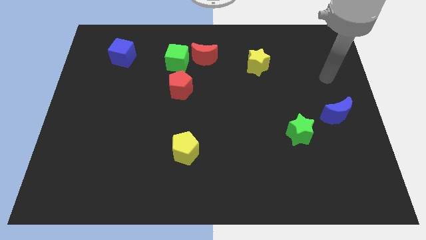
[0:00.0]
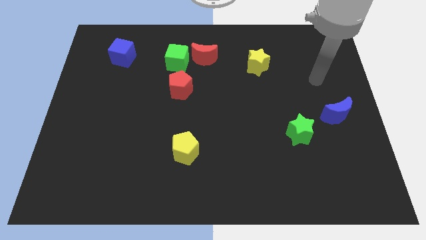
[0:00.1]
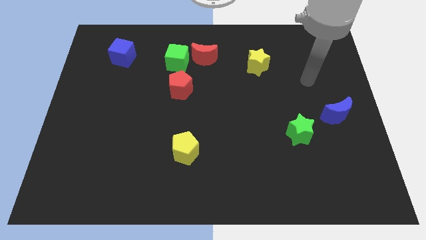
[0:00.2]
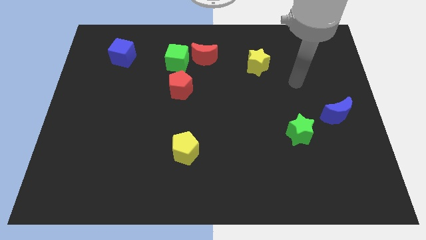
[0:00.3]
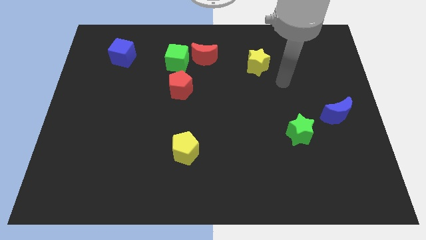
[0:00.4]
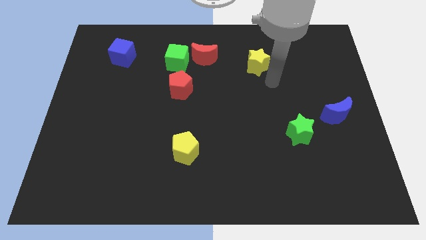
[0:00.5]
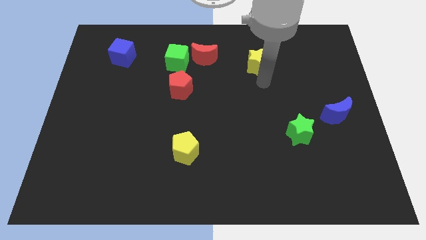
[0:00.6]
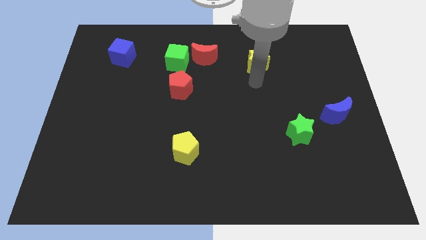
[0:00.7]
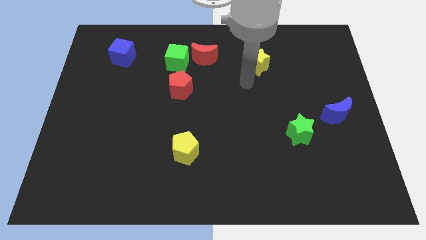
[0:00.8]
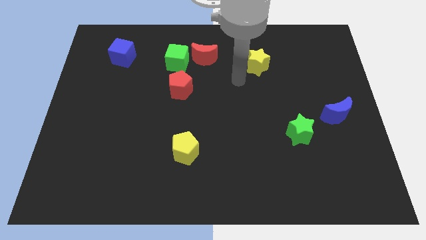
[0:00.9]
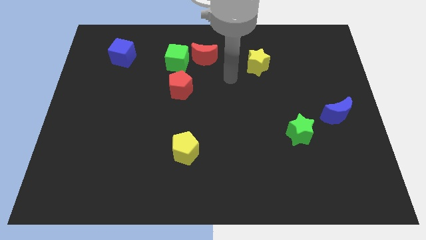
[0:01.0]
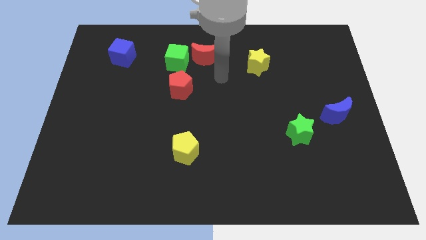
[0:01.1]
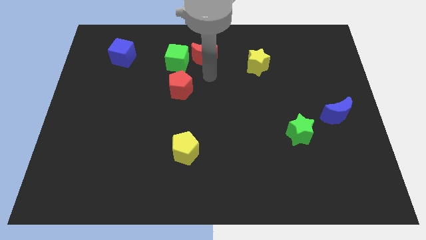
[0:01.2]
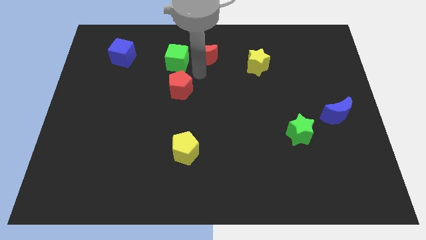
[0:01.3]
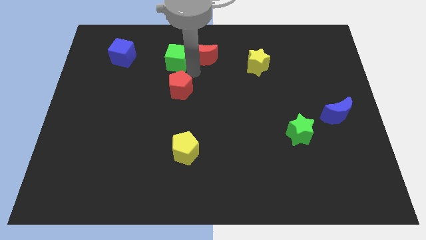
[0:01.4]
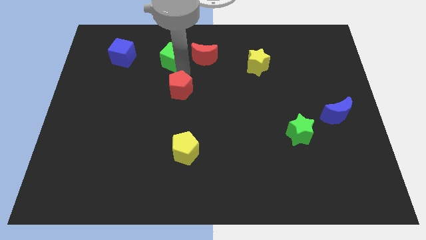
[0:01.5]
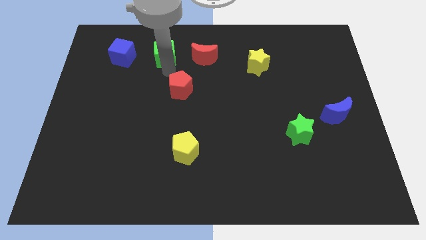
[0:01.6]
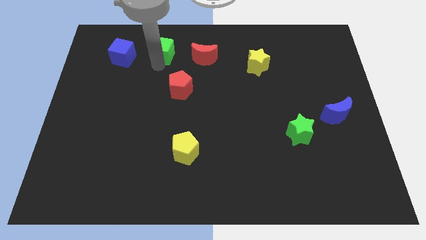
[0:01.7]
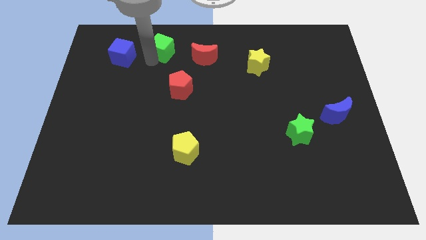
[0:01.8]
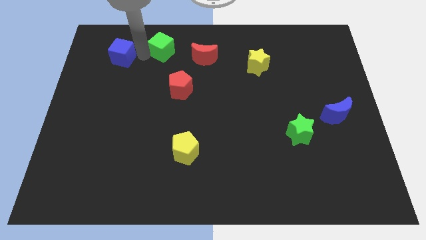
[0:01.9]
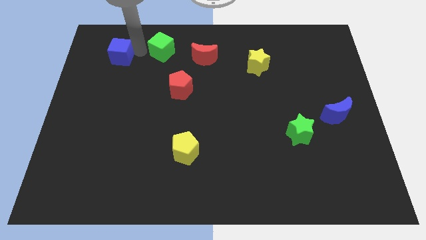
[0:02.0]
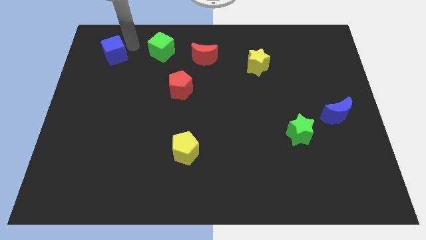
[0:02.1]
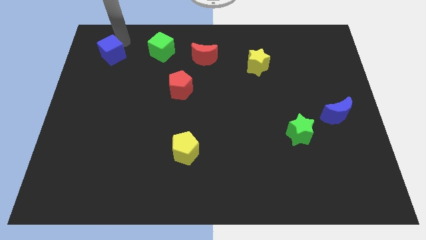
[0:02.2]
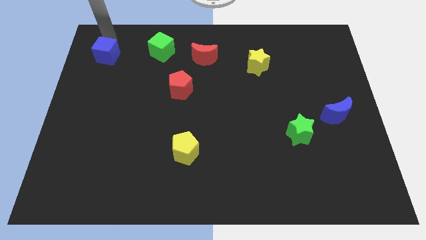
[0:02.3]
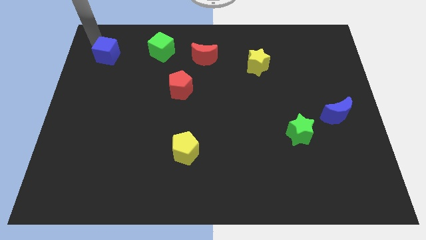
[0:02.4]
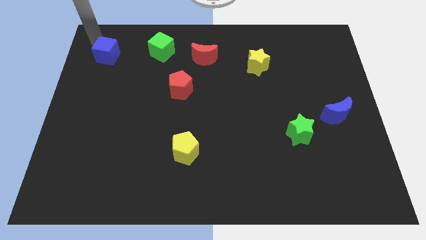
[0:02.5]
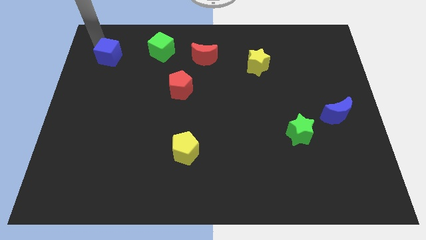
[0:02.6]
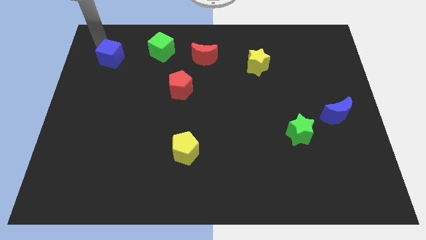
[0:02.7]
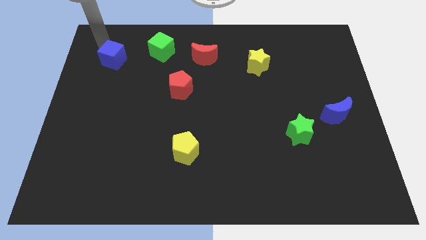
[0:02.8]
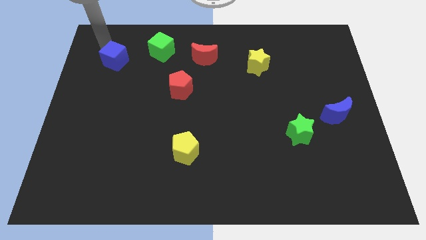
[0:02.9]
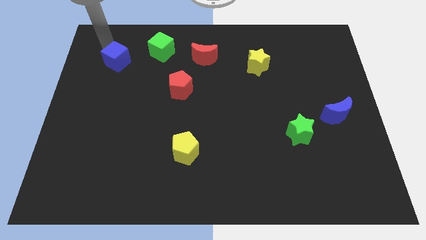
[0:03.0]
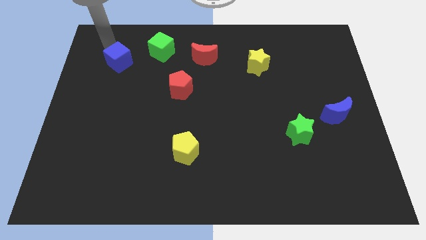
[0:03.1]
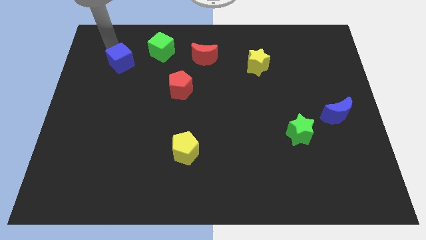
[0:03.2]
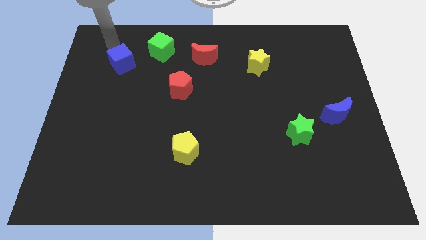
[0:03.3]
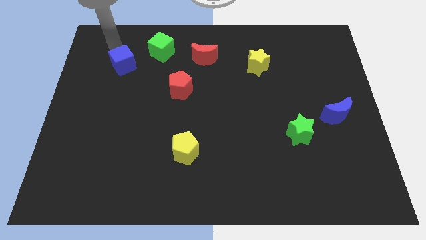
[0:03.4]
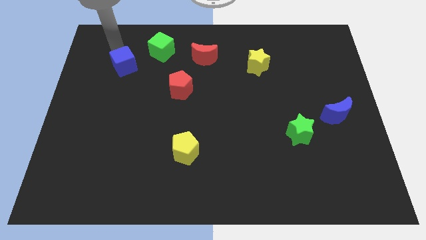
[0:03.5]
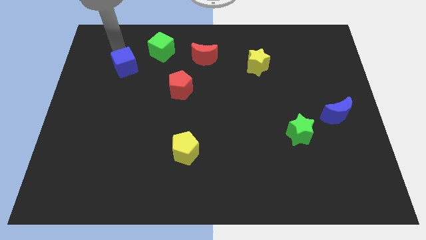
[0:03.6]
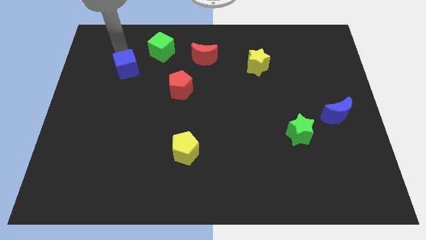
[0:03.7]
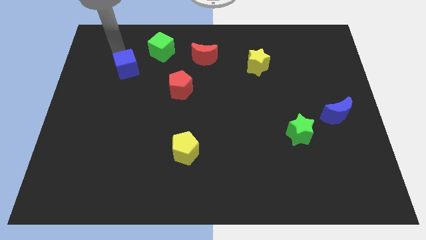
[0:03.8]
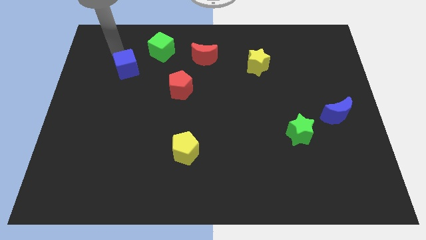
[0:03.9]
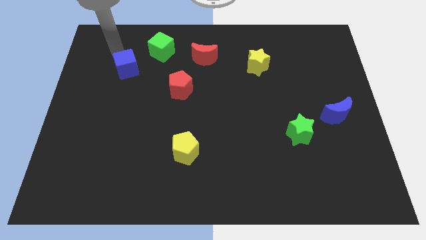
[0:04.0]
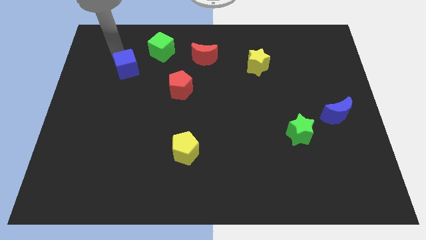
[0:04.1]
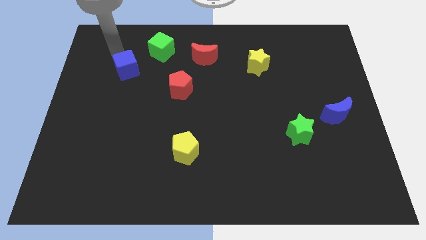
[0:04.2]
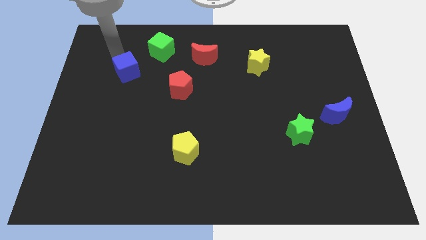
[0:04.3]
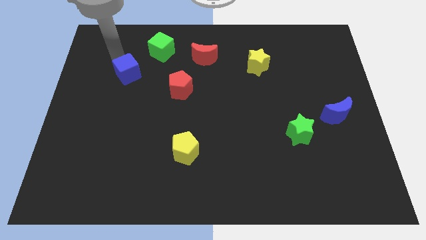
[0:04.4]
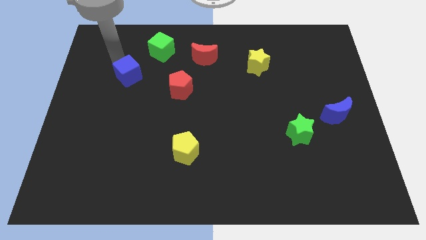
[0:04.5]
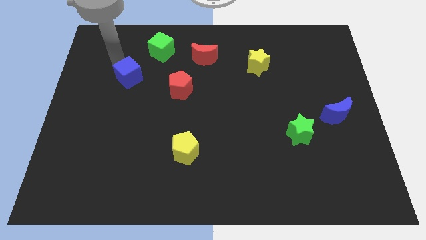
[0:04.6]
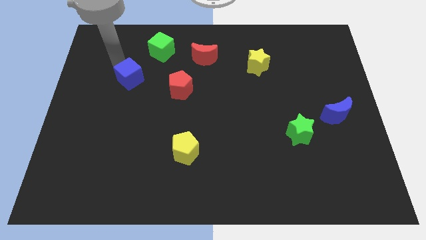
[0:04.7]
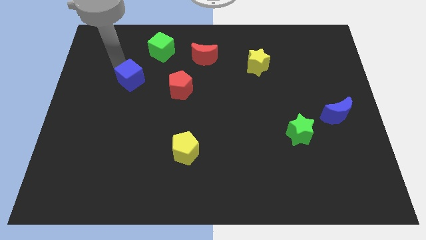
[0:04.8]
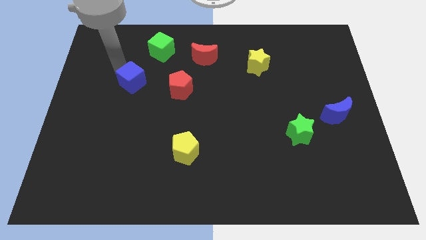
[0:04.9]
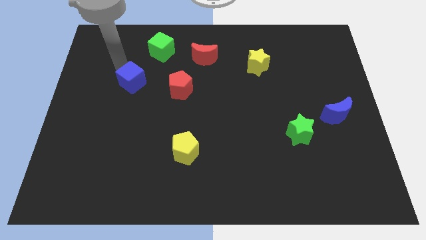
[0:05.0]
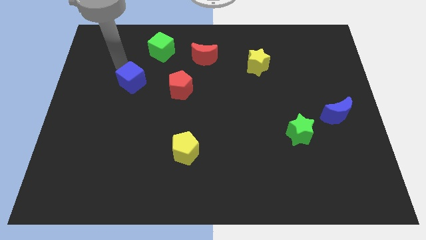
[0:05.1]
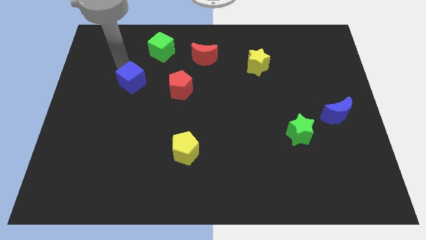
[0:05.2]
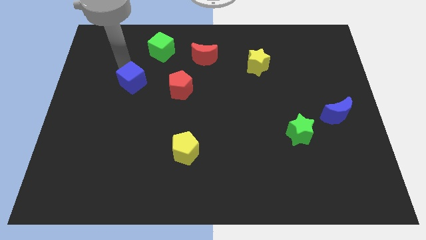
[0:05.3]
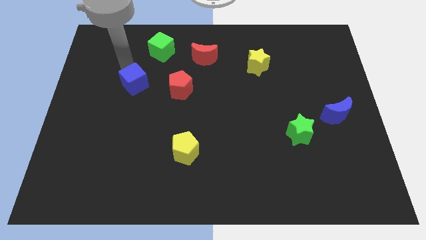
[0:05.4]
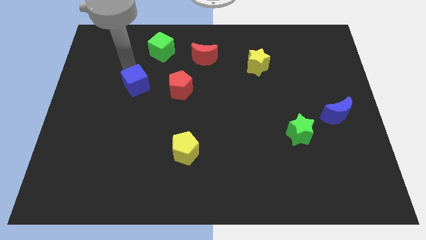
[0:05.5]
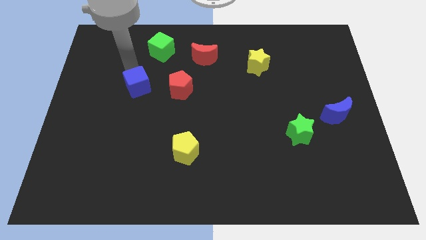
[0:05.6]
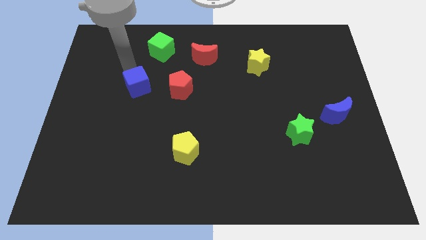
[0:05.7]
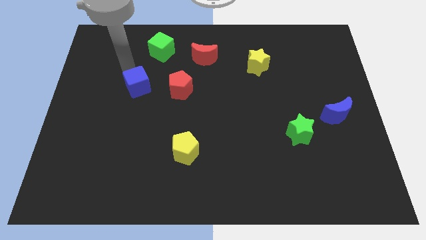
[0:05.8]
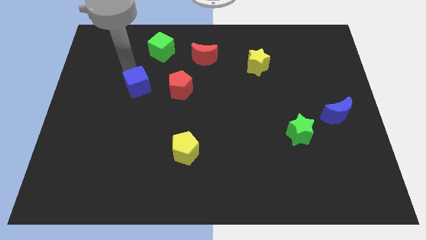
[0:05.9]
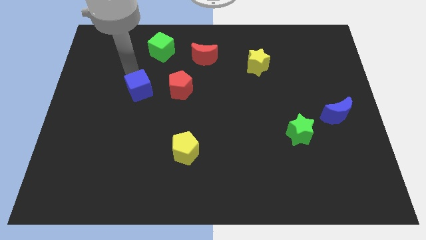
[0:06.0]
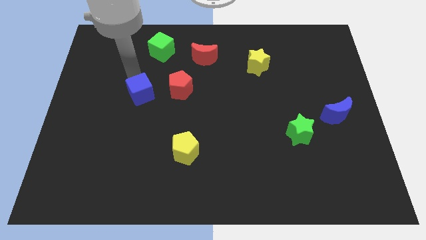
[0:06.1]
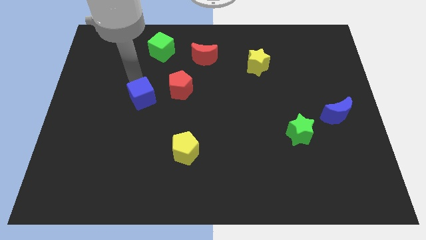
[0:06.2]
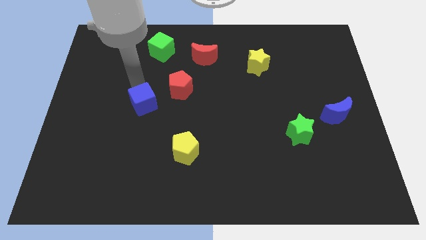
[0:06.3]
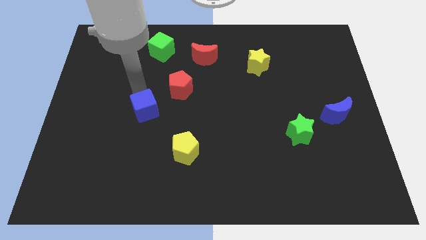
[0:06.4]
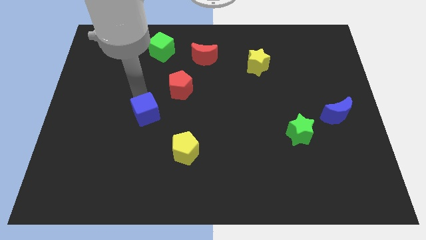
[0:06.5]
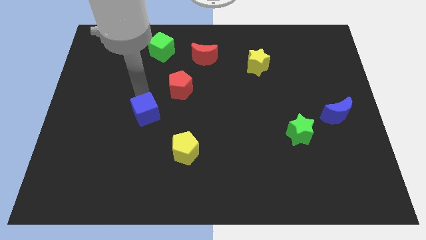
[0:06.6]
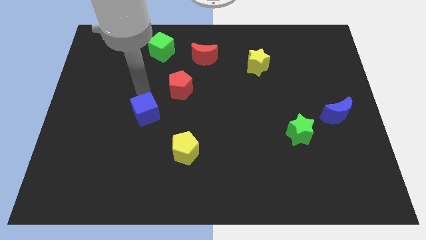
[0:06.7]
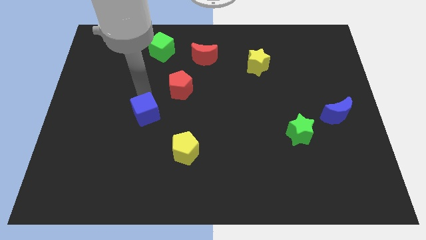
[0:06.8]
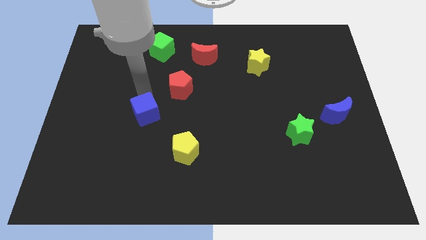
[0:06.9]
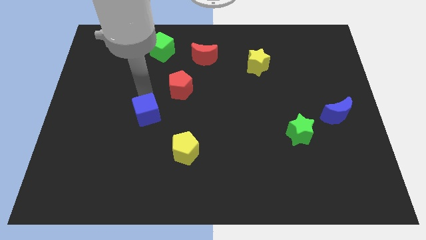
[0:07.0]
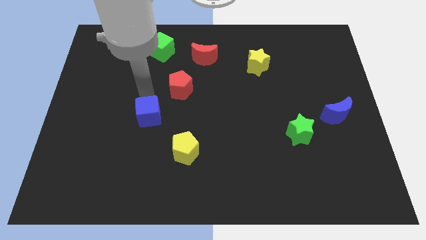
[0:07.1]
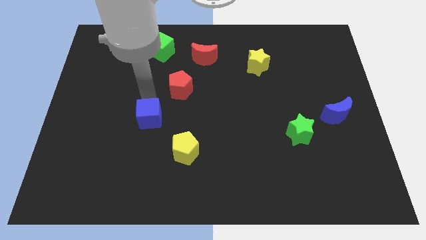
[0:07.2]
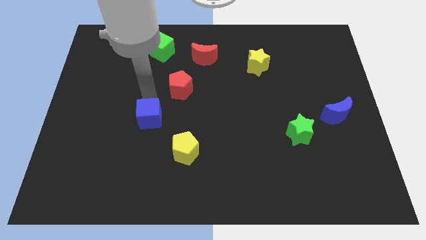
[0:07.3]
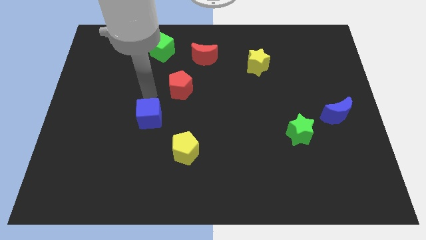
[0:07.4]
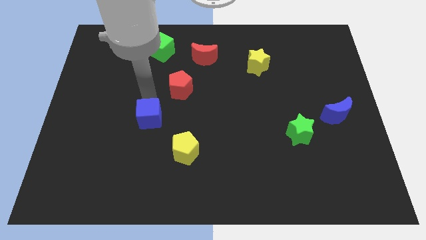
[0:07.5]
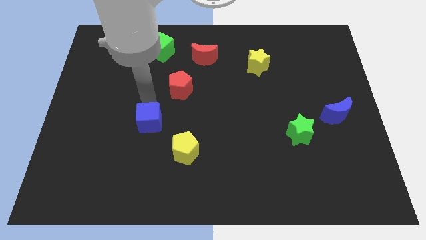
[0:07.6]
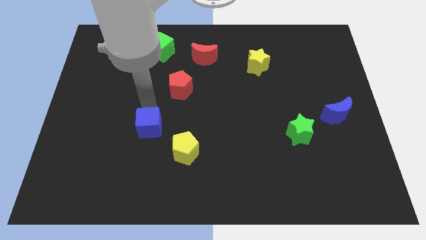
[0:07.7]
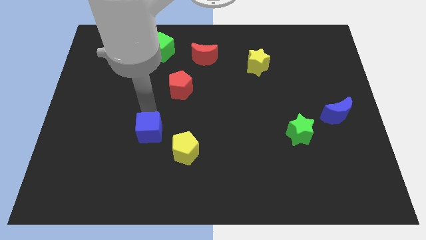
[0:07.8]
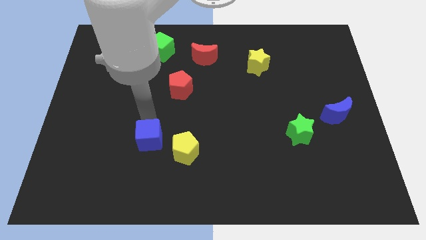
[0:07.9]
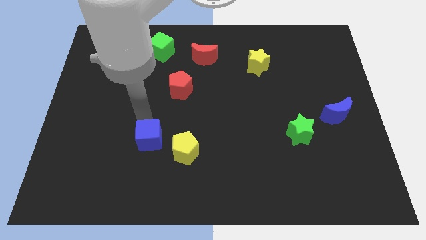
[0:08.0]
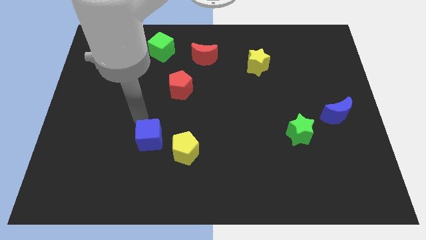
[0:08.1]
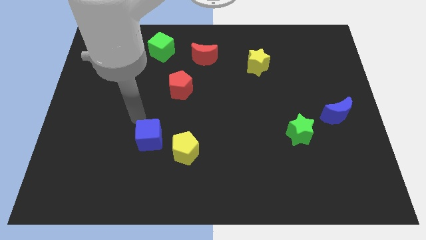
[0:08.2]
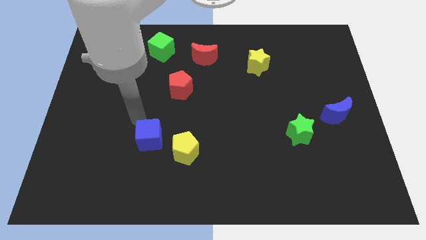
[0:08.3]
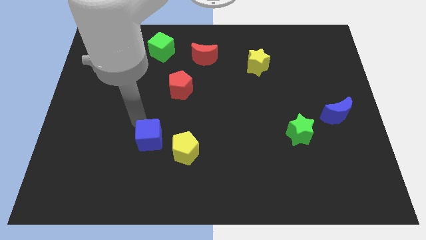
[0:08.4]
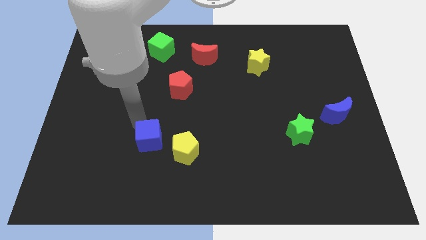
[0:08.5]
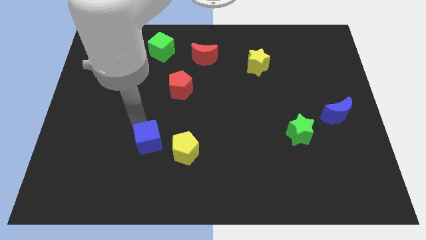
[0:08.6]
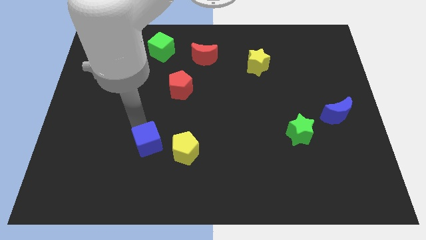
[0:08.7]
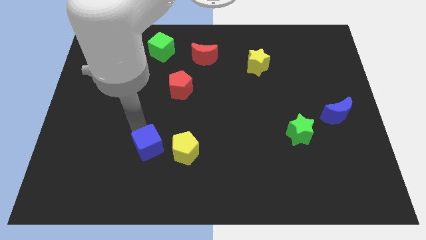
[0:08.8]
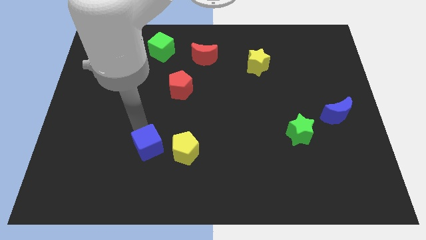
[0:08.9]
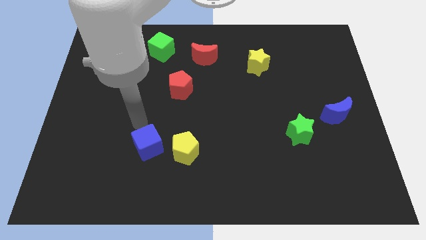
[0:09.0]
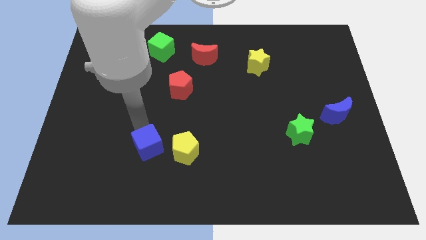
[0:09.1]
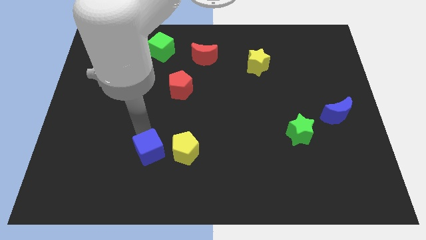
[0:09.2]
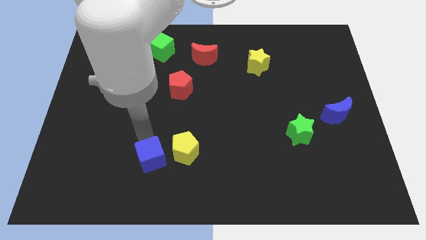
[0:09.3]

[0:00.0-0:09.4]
move the blue cube to the bottom left of the yellow pentagon
